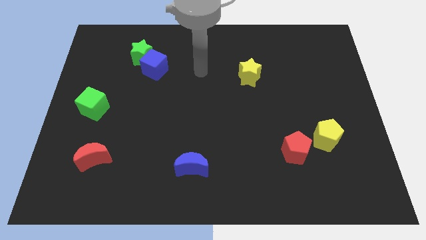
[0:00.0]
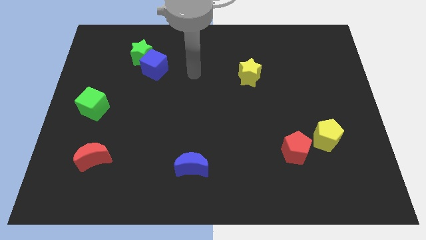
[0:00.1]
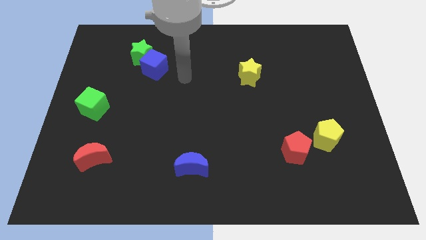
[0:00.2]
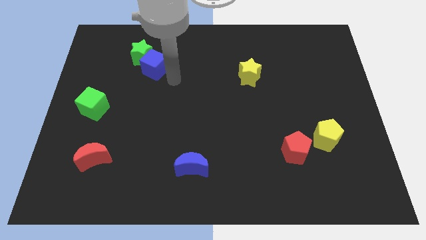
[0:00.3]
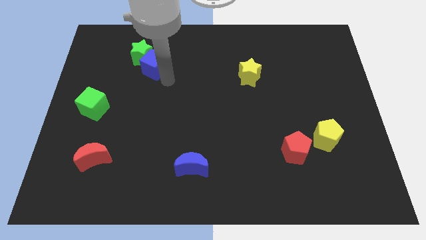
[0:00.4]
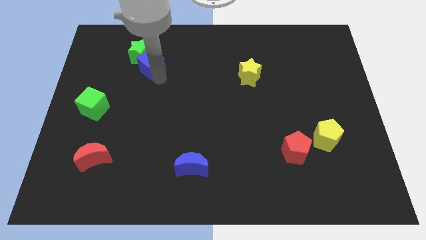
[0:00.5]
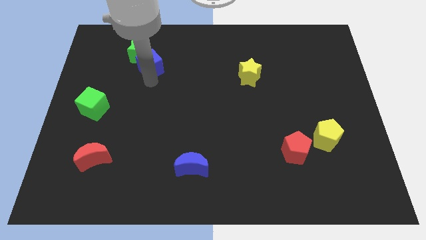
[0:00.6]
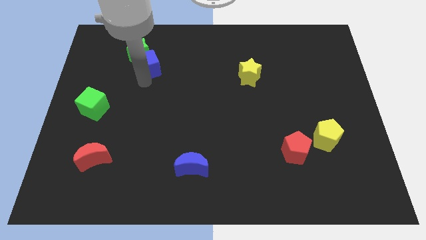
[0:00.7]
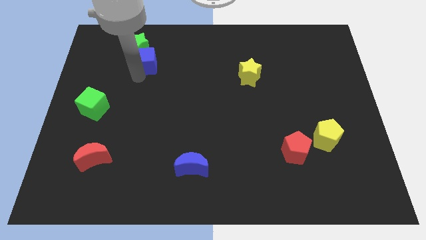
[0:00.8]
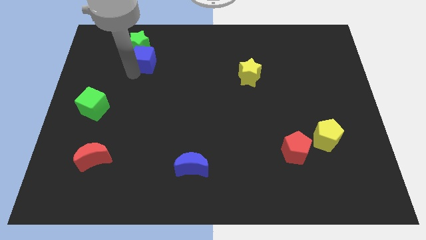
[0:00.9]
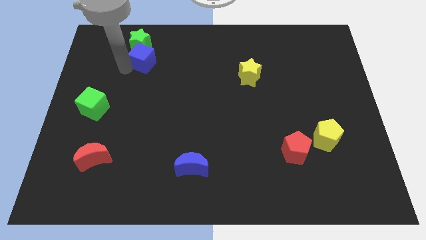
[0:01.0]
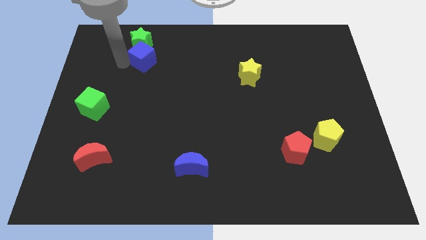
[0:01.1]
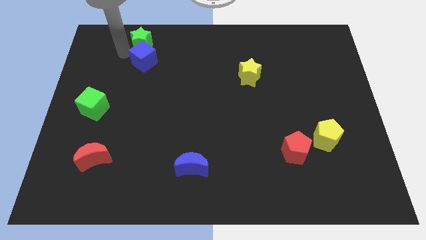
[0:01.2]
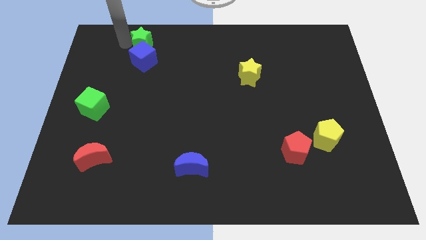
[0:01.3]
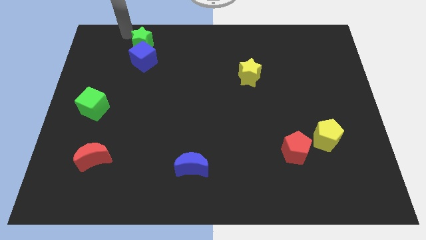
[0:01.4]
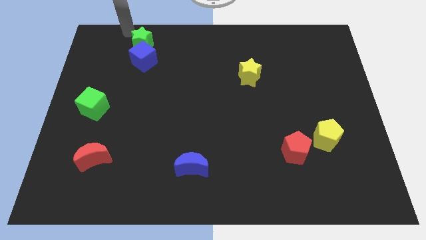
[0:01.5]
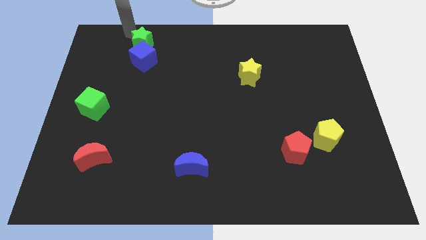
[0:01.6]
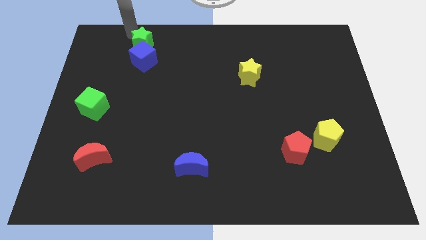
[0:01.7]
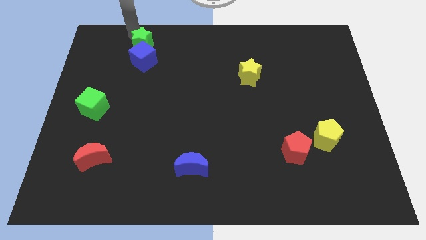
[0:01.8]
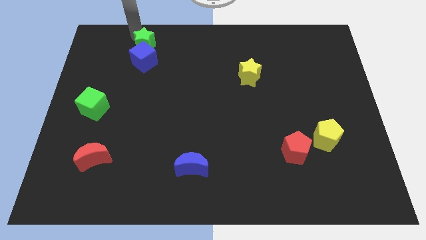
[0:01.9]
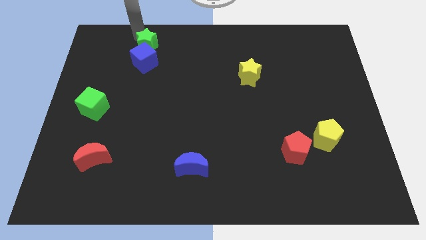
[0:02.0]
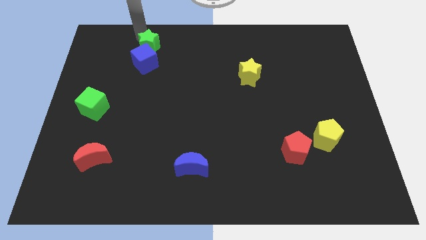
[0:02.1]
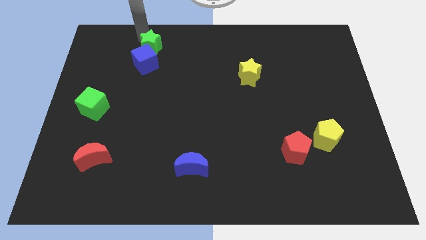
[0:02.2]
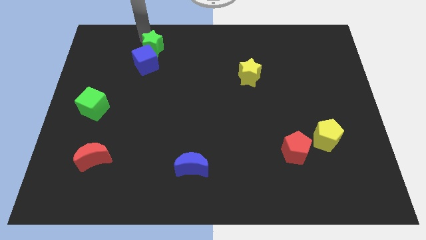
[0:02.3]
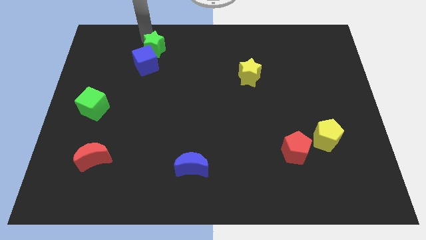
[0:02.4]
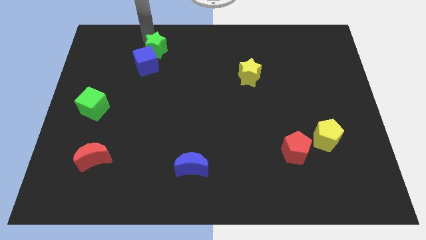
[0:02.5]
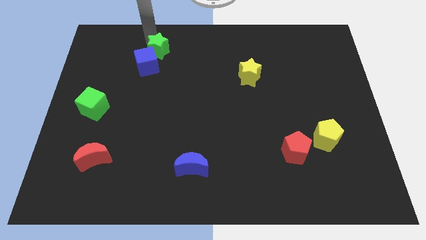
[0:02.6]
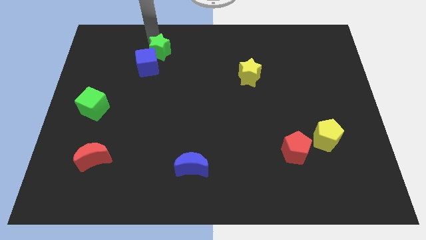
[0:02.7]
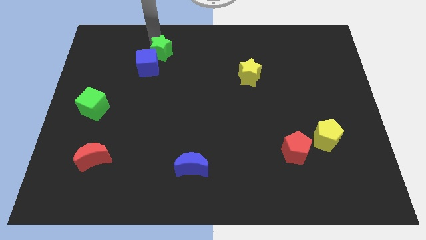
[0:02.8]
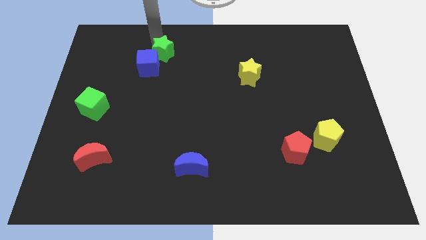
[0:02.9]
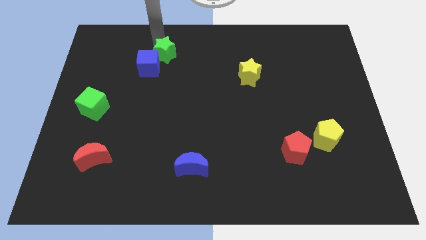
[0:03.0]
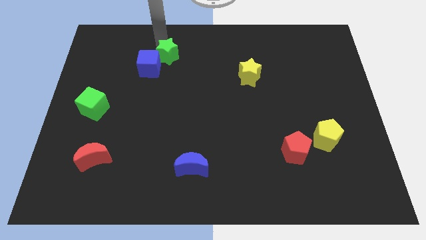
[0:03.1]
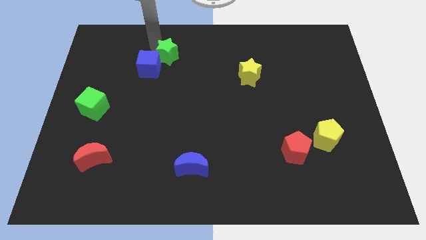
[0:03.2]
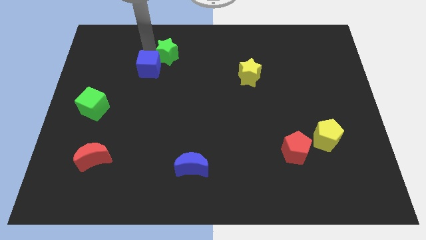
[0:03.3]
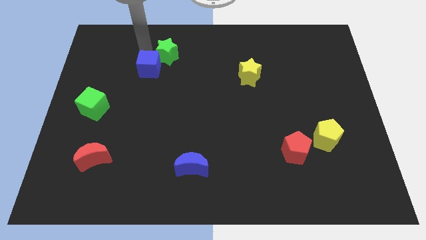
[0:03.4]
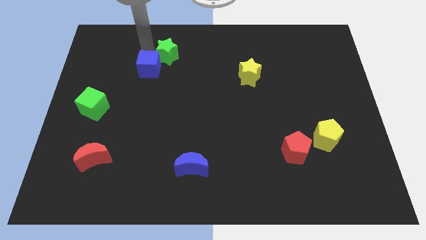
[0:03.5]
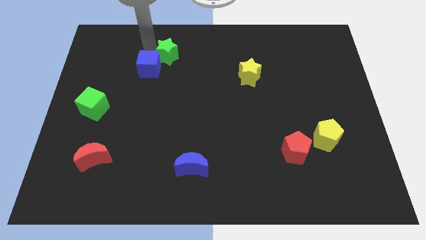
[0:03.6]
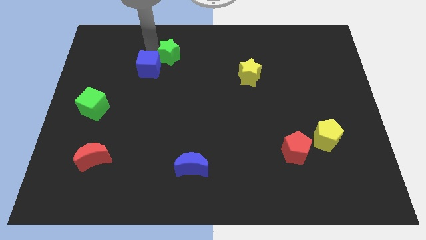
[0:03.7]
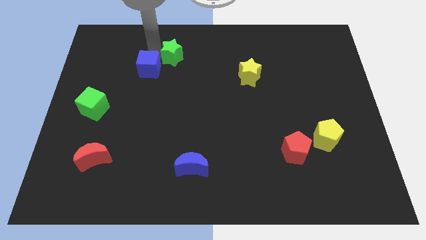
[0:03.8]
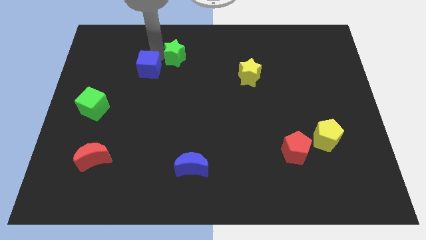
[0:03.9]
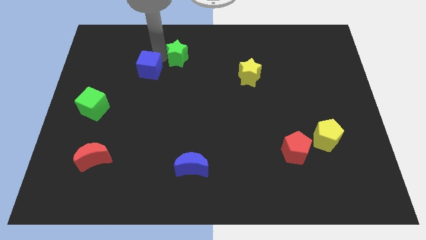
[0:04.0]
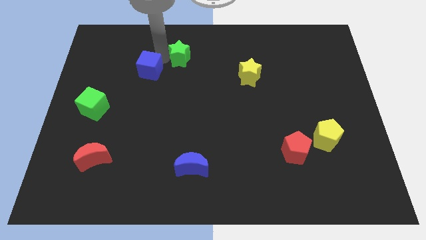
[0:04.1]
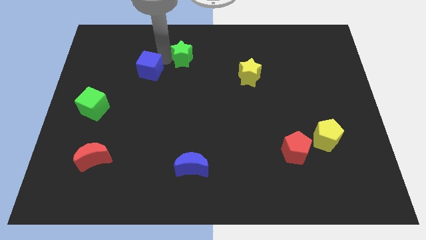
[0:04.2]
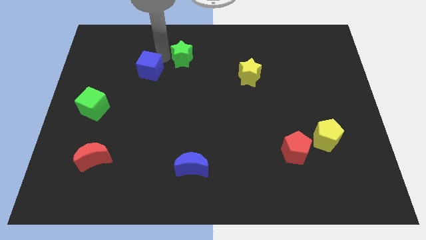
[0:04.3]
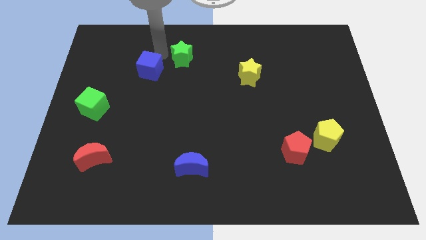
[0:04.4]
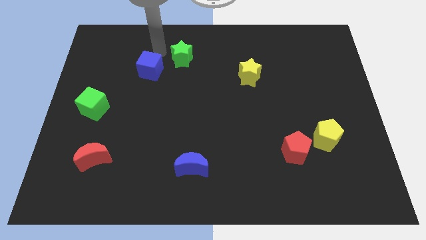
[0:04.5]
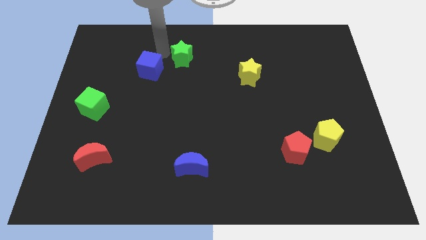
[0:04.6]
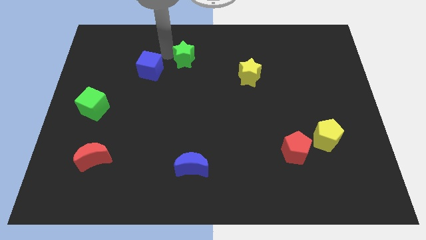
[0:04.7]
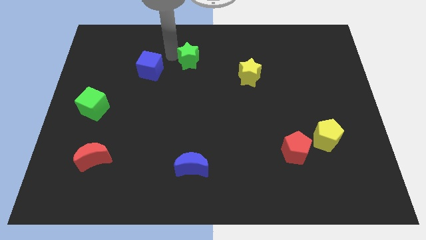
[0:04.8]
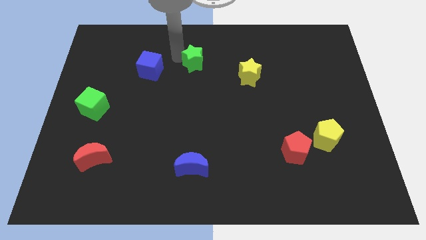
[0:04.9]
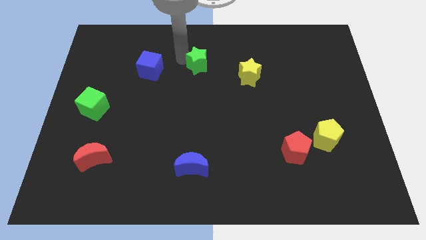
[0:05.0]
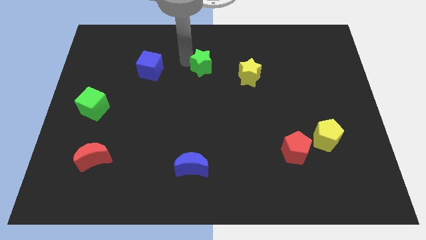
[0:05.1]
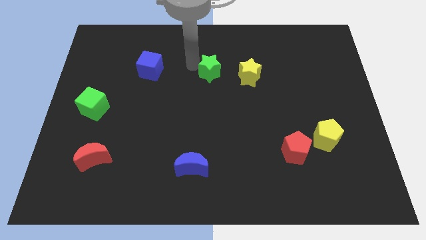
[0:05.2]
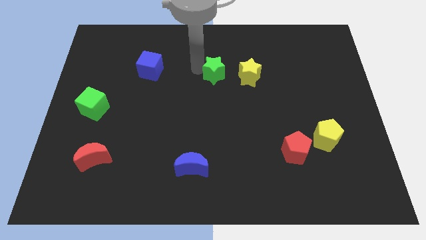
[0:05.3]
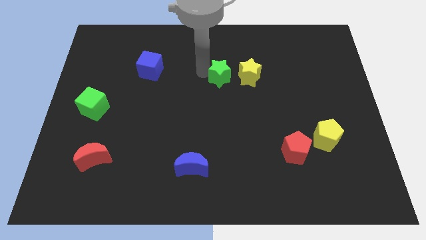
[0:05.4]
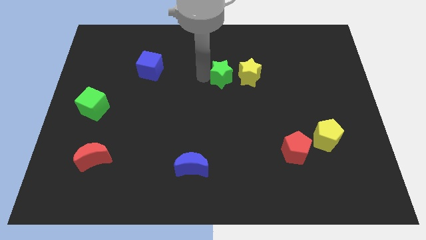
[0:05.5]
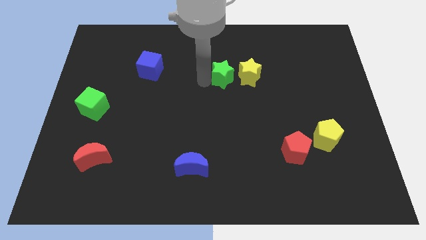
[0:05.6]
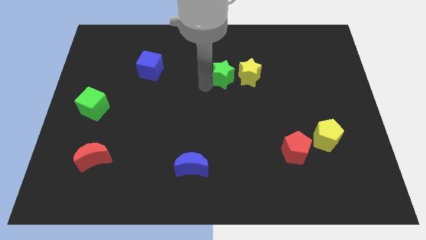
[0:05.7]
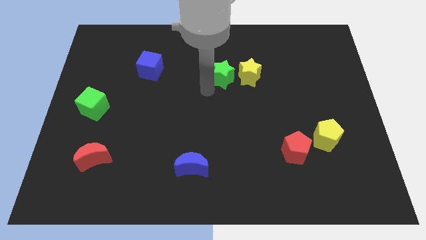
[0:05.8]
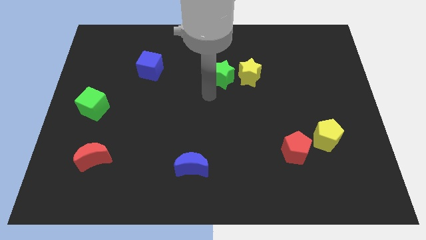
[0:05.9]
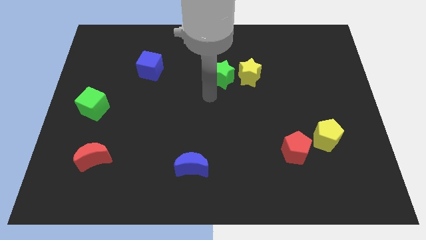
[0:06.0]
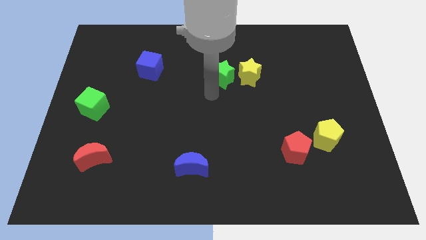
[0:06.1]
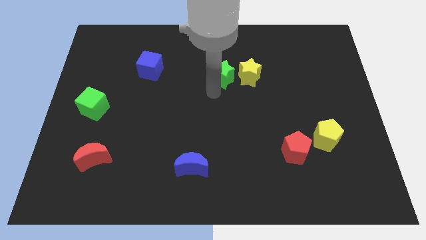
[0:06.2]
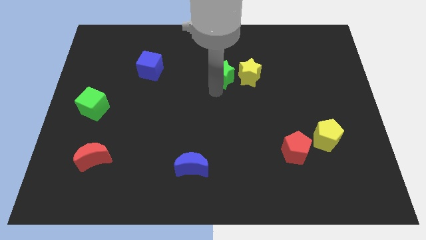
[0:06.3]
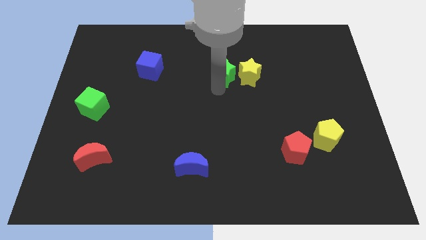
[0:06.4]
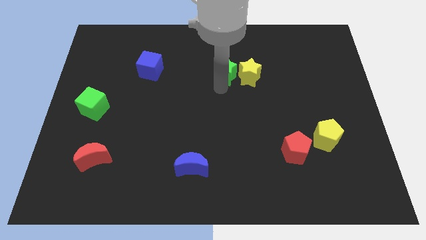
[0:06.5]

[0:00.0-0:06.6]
slide the green star to the right

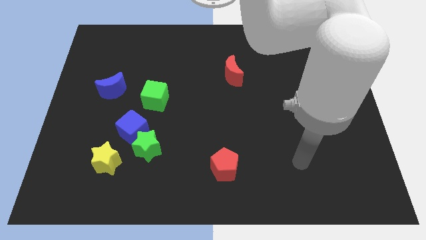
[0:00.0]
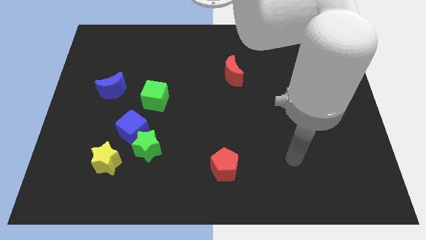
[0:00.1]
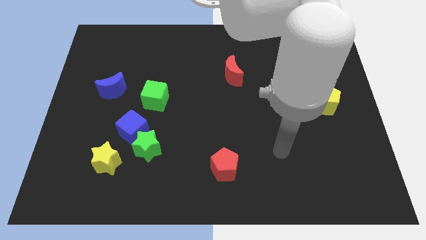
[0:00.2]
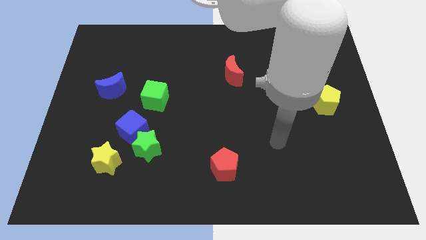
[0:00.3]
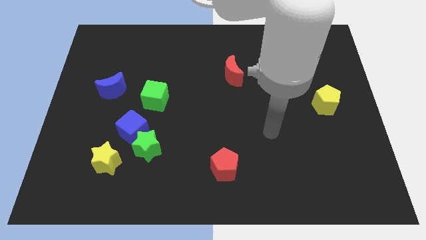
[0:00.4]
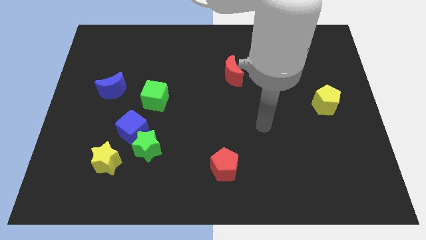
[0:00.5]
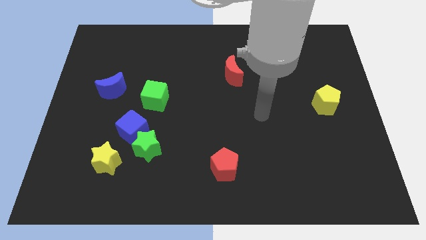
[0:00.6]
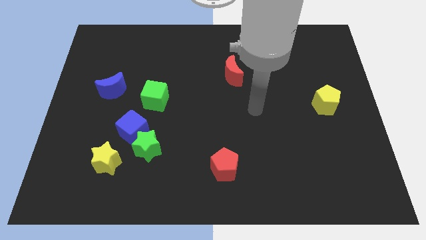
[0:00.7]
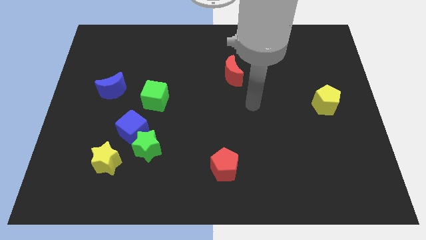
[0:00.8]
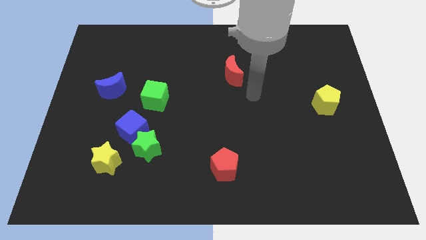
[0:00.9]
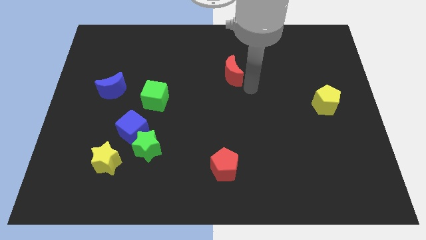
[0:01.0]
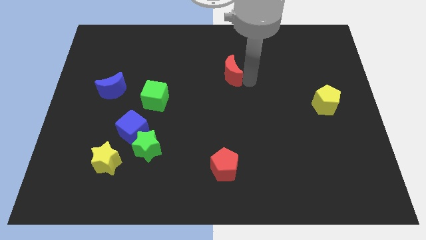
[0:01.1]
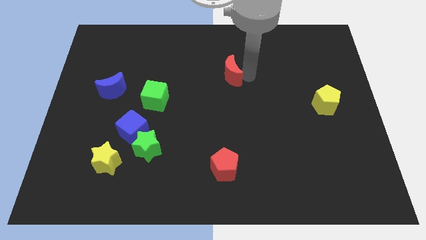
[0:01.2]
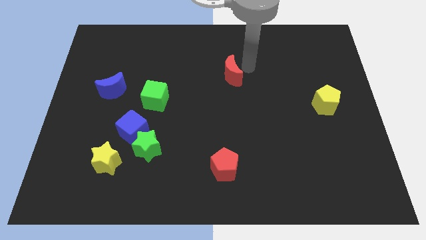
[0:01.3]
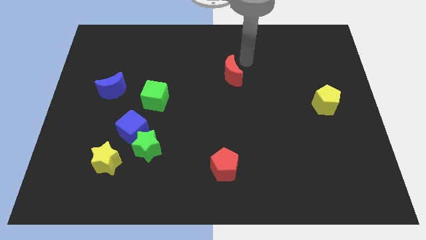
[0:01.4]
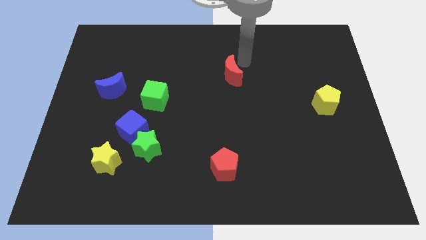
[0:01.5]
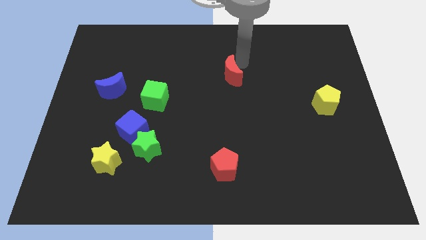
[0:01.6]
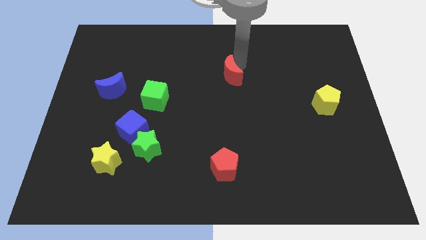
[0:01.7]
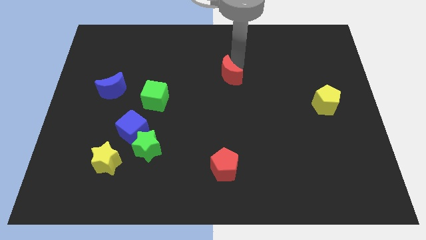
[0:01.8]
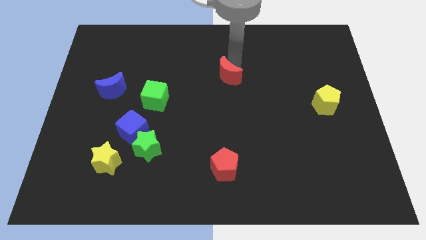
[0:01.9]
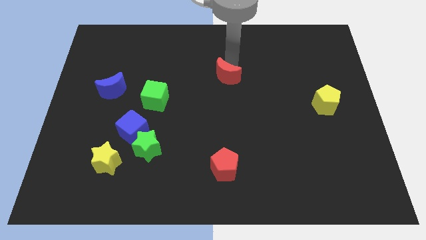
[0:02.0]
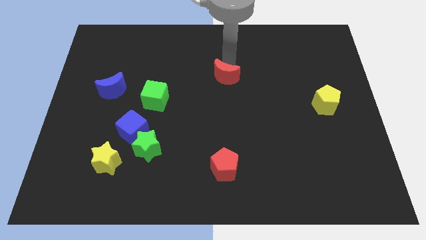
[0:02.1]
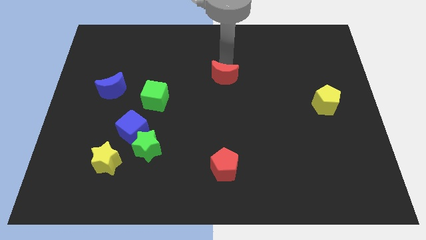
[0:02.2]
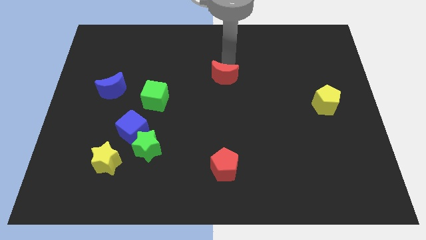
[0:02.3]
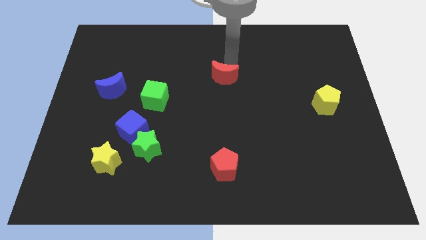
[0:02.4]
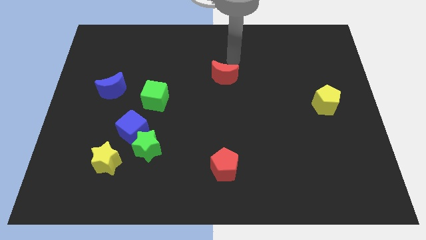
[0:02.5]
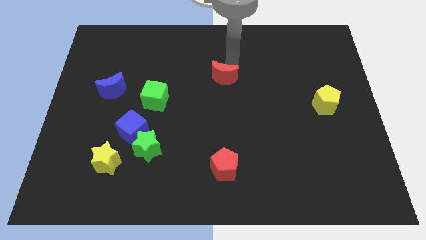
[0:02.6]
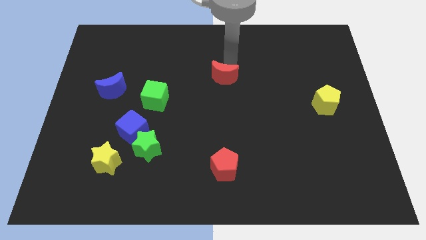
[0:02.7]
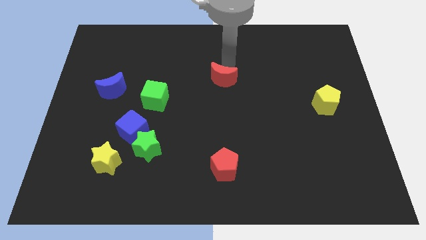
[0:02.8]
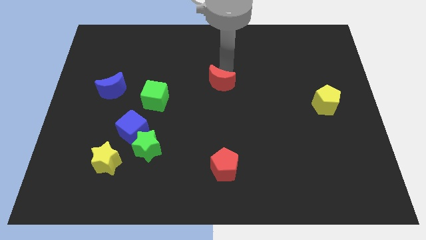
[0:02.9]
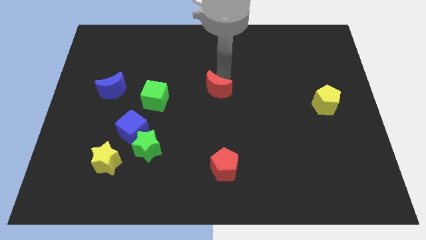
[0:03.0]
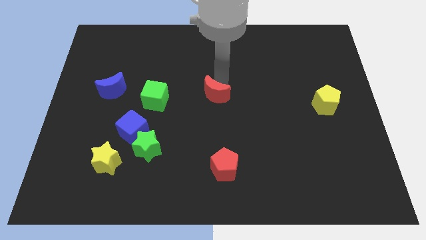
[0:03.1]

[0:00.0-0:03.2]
slide the red moon down and to the left diagonally slightly
